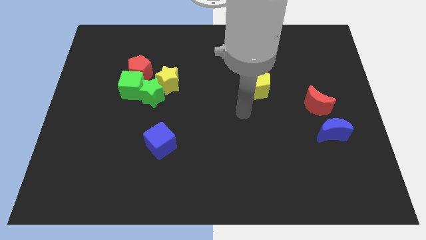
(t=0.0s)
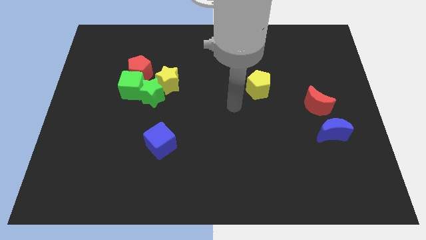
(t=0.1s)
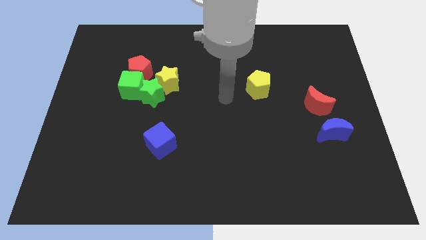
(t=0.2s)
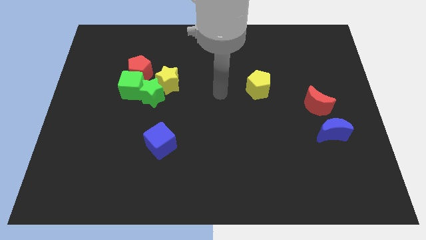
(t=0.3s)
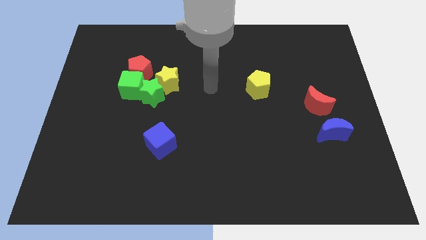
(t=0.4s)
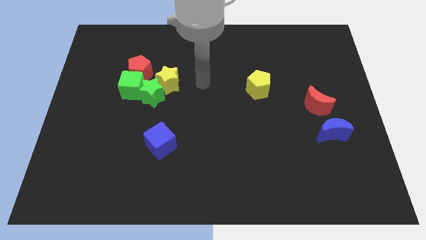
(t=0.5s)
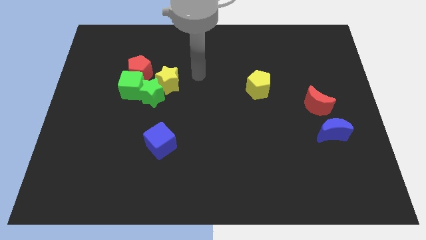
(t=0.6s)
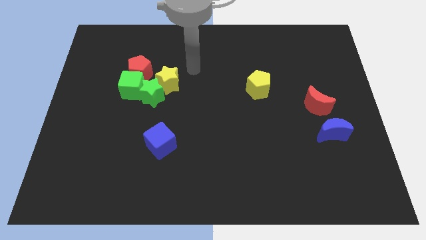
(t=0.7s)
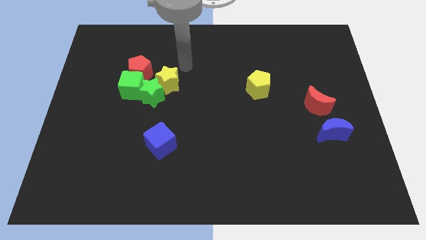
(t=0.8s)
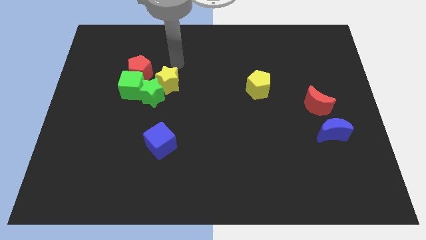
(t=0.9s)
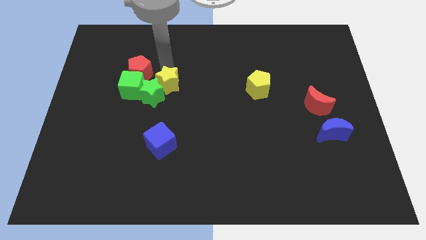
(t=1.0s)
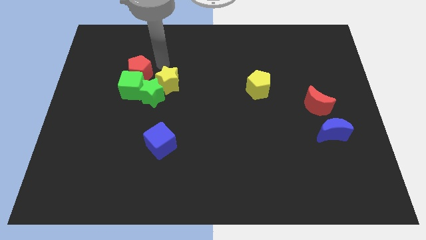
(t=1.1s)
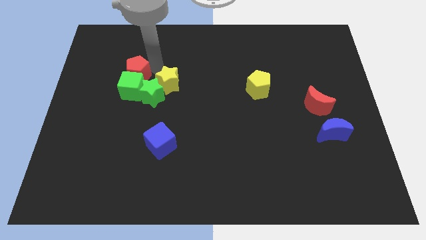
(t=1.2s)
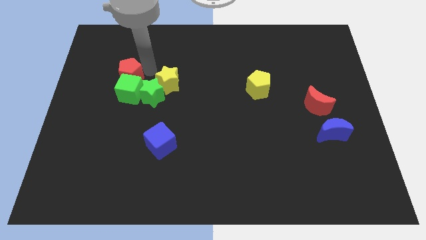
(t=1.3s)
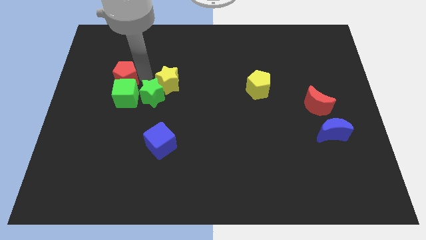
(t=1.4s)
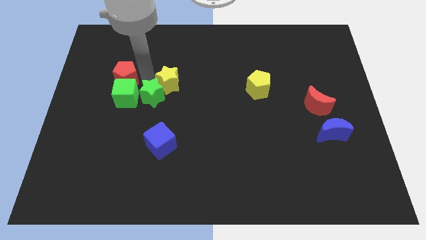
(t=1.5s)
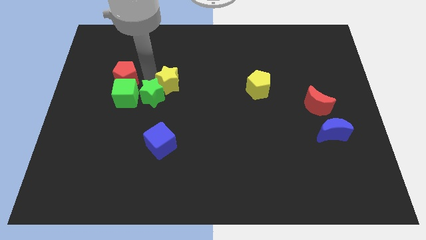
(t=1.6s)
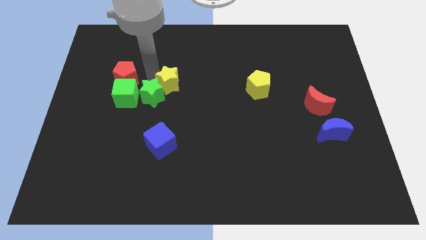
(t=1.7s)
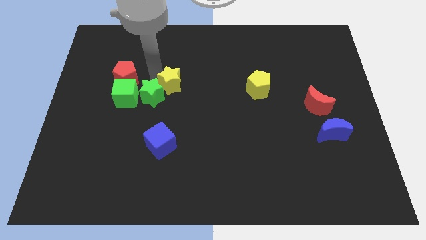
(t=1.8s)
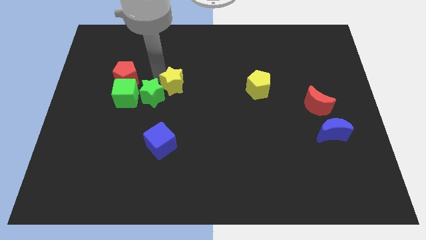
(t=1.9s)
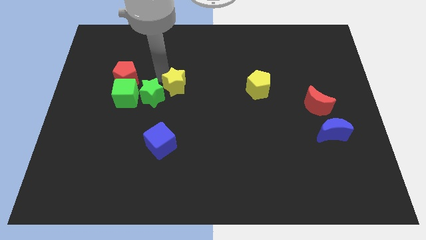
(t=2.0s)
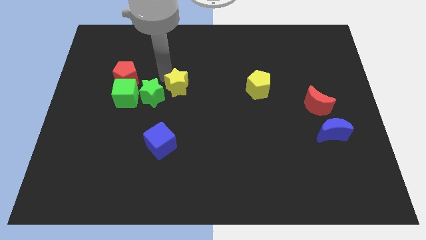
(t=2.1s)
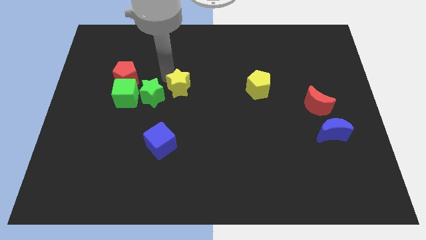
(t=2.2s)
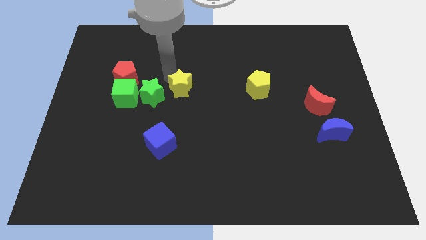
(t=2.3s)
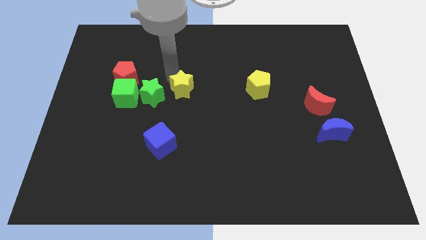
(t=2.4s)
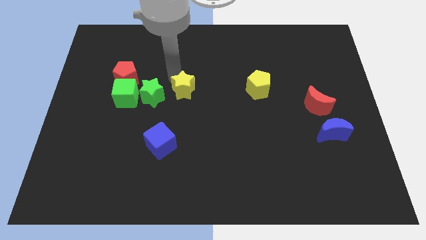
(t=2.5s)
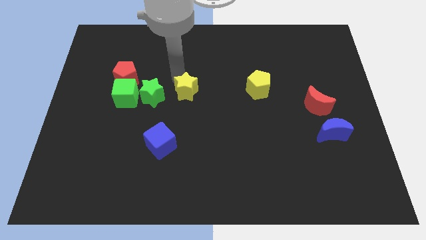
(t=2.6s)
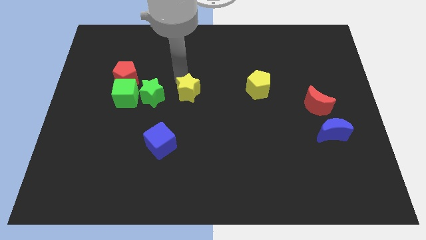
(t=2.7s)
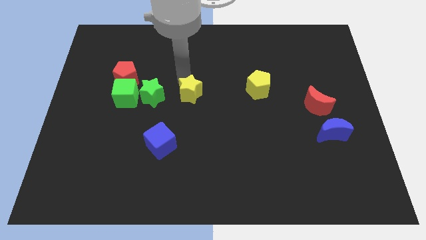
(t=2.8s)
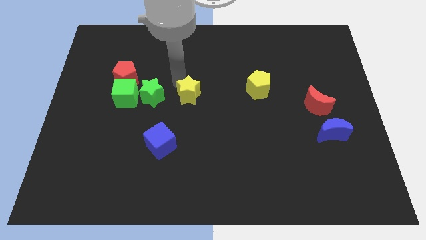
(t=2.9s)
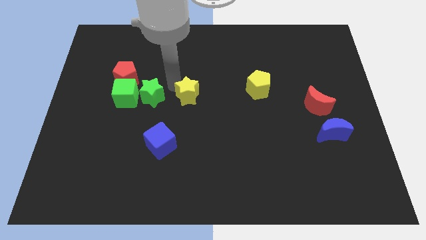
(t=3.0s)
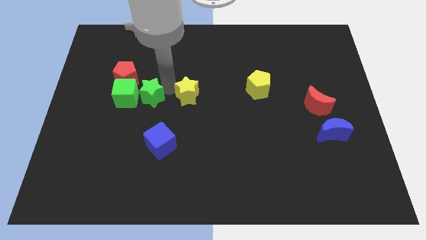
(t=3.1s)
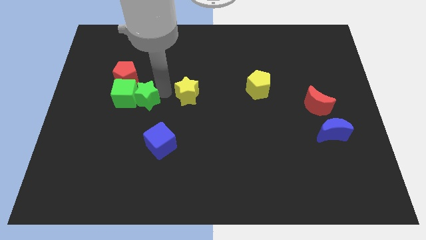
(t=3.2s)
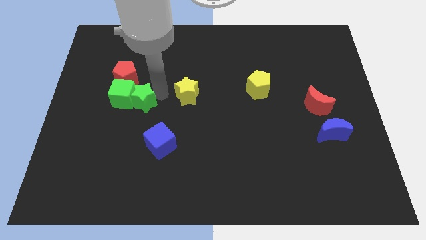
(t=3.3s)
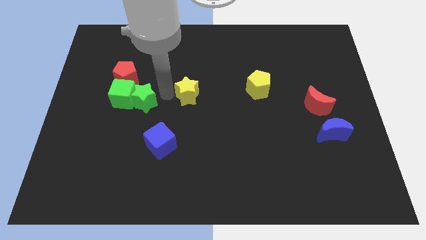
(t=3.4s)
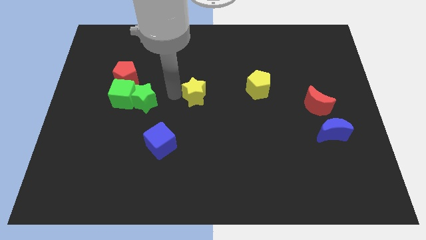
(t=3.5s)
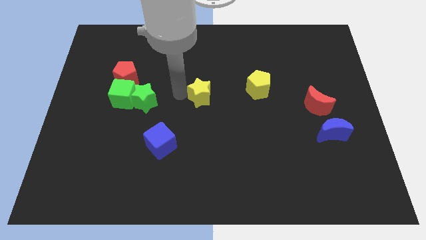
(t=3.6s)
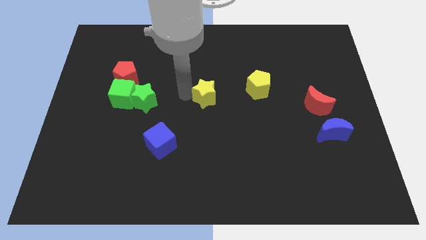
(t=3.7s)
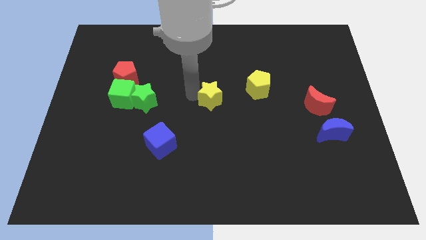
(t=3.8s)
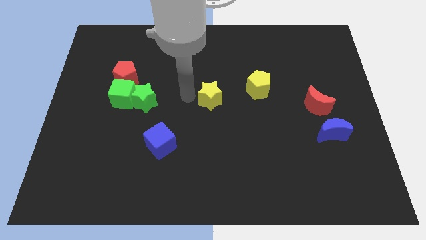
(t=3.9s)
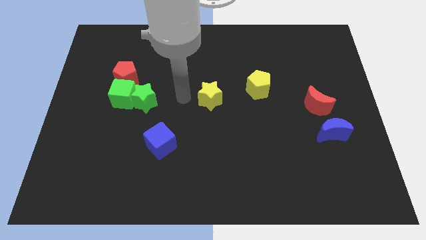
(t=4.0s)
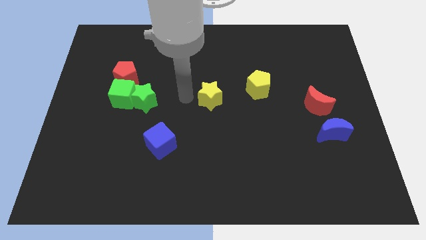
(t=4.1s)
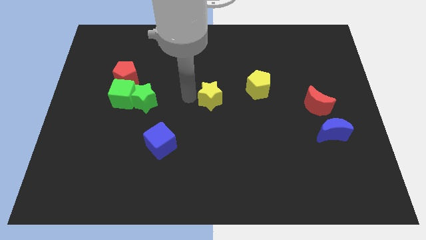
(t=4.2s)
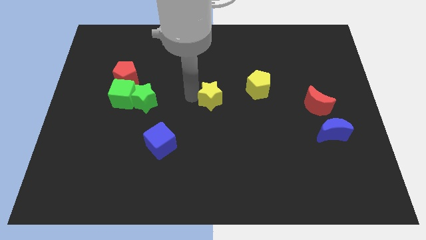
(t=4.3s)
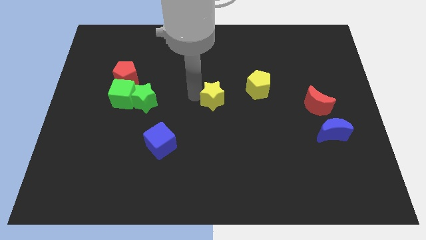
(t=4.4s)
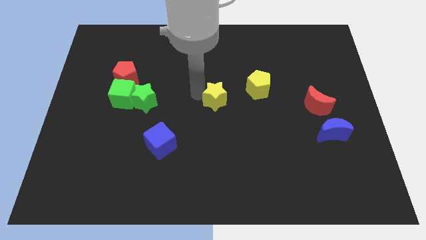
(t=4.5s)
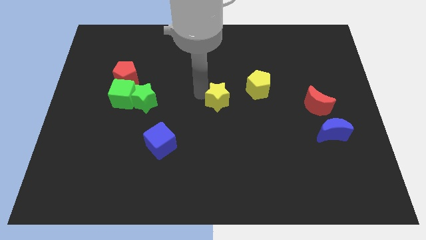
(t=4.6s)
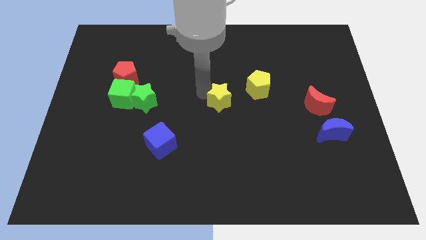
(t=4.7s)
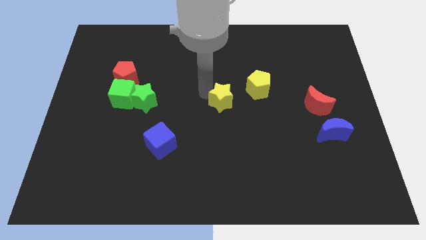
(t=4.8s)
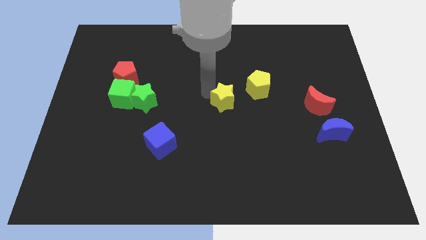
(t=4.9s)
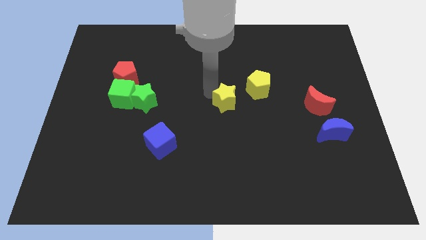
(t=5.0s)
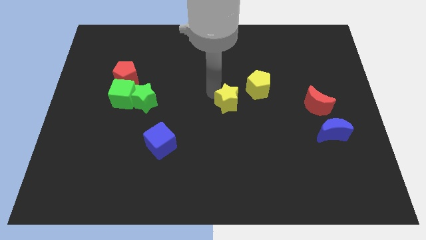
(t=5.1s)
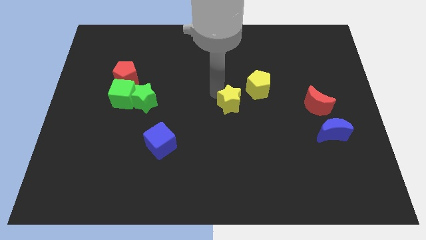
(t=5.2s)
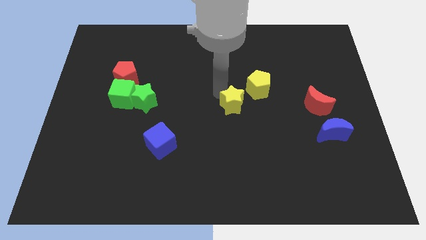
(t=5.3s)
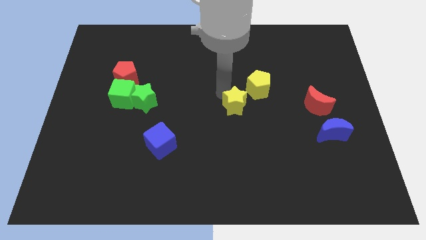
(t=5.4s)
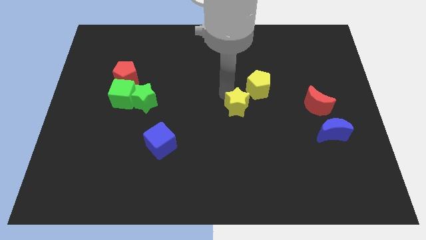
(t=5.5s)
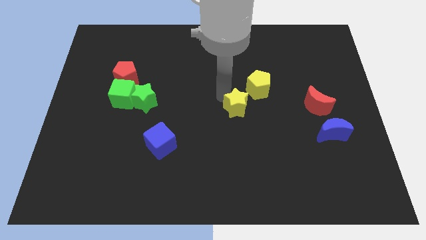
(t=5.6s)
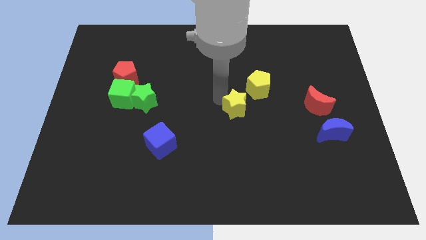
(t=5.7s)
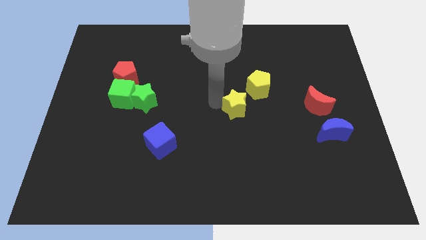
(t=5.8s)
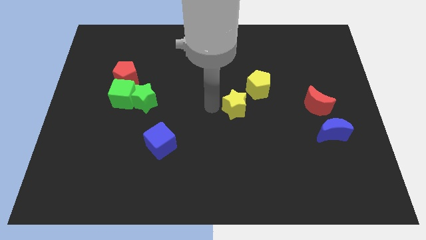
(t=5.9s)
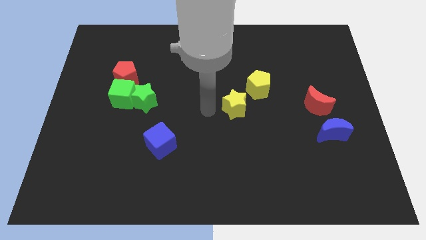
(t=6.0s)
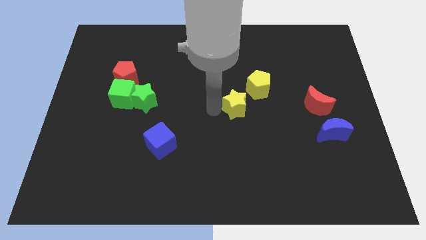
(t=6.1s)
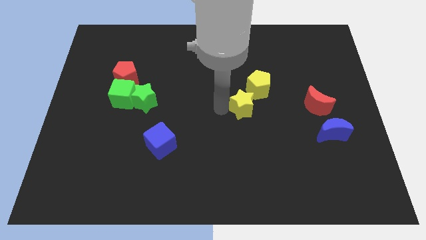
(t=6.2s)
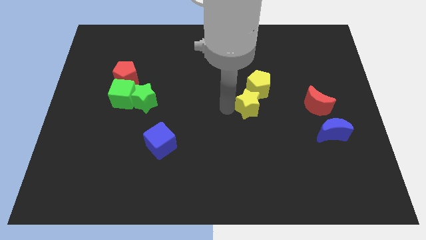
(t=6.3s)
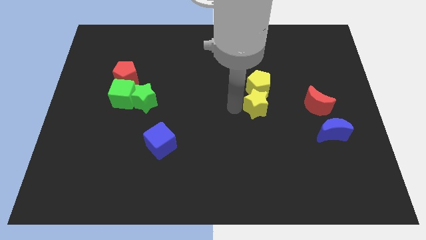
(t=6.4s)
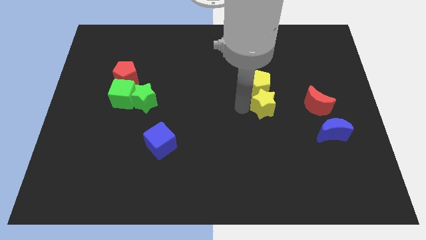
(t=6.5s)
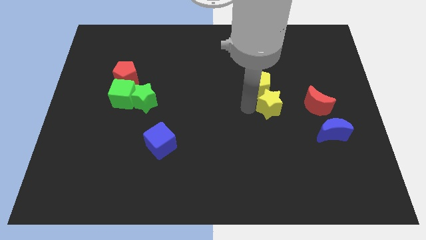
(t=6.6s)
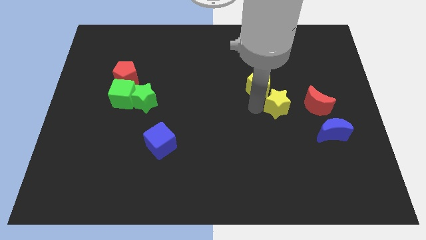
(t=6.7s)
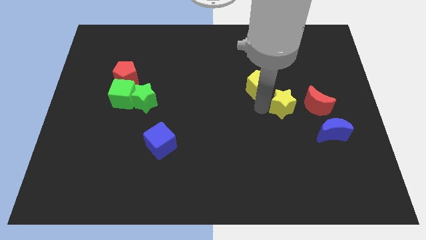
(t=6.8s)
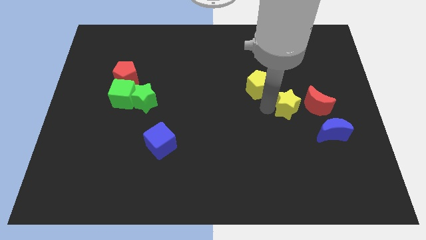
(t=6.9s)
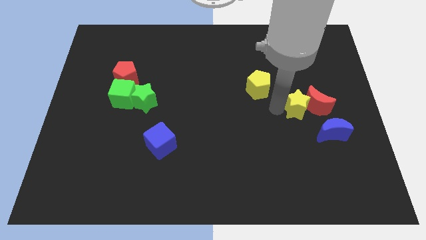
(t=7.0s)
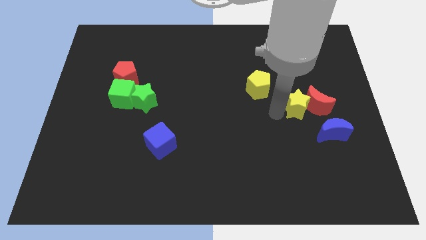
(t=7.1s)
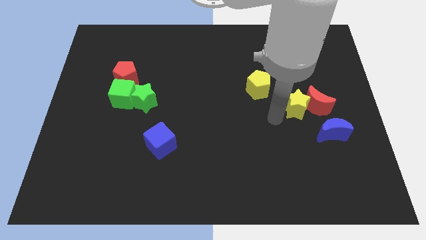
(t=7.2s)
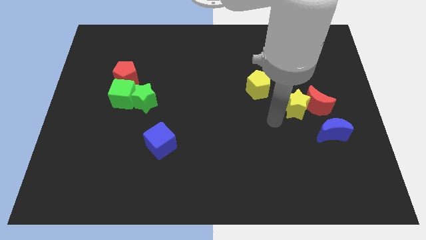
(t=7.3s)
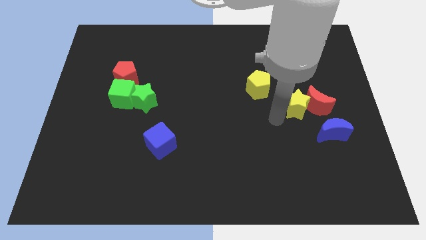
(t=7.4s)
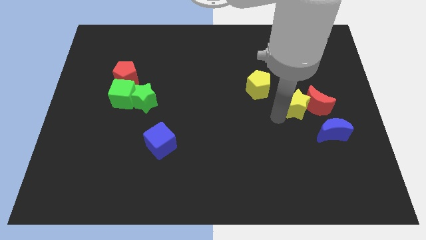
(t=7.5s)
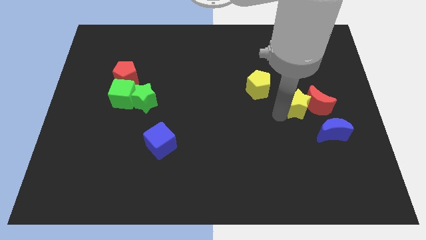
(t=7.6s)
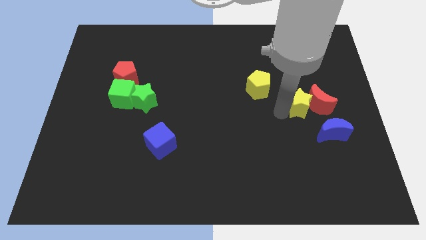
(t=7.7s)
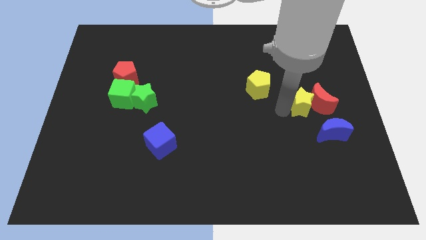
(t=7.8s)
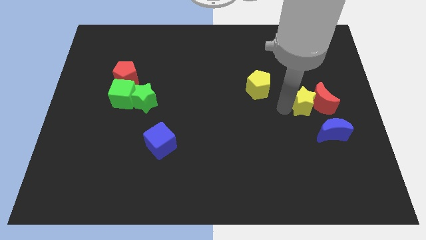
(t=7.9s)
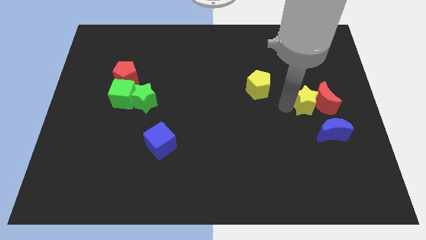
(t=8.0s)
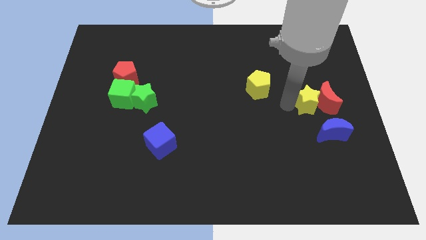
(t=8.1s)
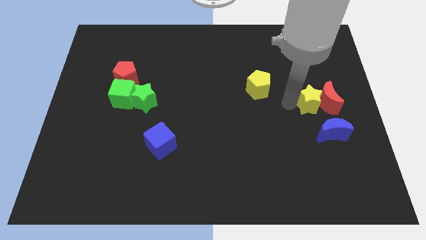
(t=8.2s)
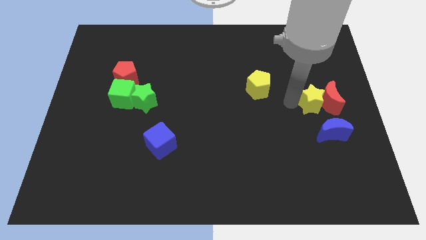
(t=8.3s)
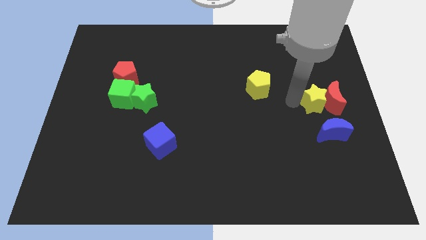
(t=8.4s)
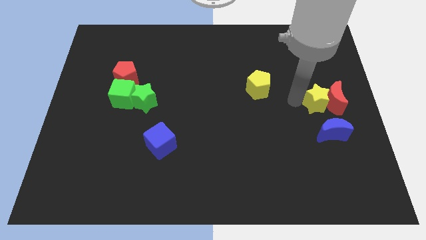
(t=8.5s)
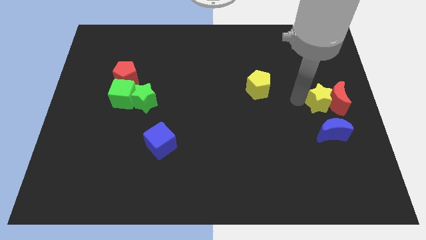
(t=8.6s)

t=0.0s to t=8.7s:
push the yellow star to the center right
